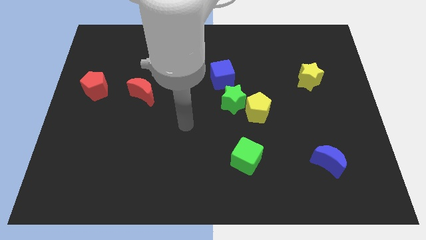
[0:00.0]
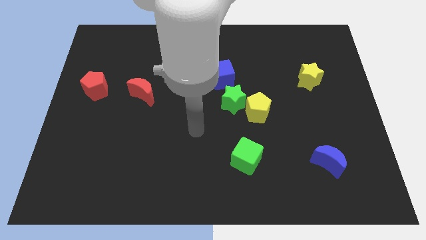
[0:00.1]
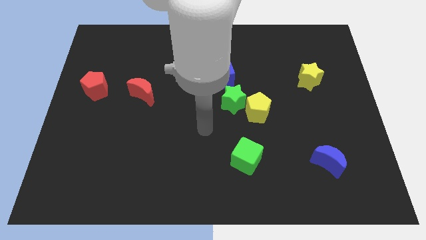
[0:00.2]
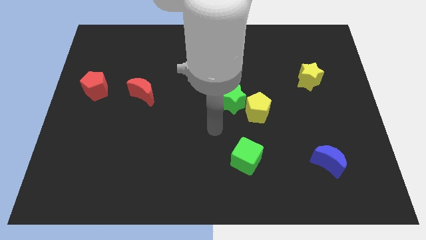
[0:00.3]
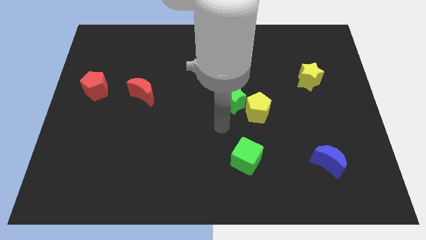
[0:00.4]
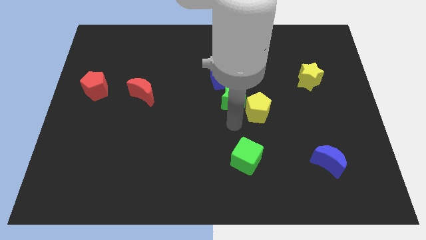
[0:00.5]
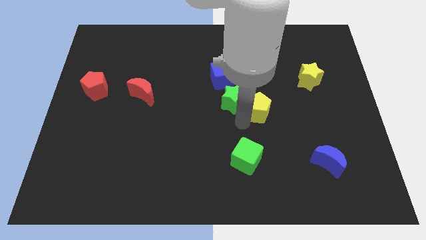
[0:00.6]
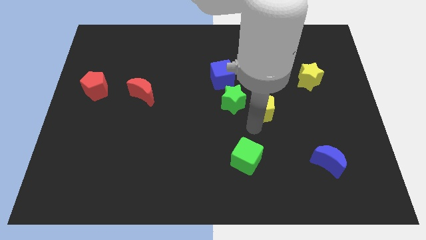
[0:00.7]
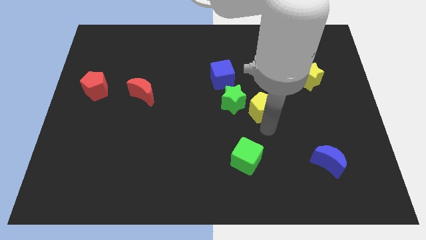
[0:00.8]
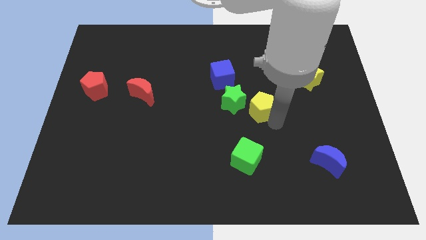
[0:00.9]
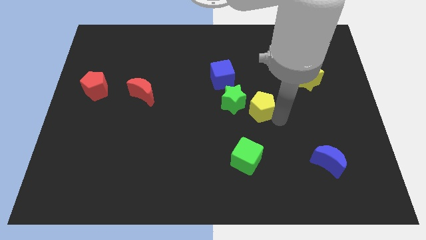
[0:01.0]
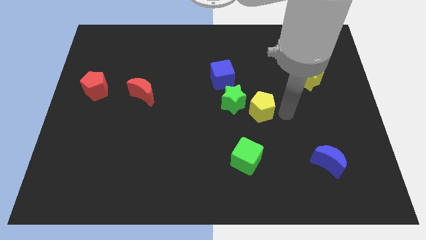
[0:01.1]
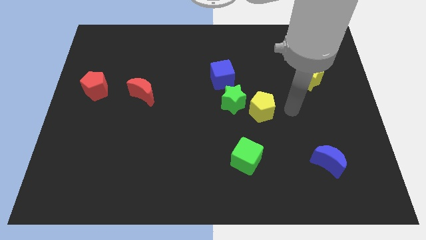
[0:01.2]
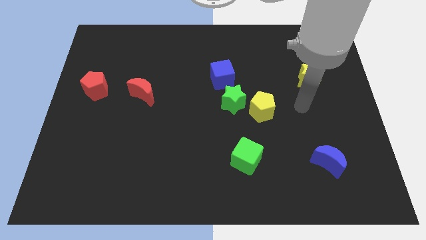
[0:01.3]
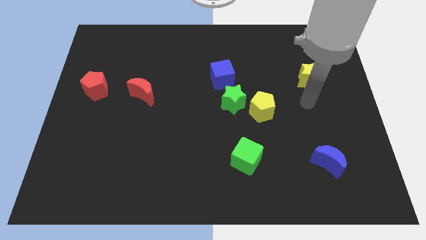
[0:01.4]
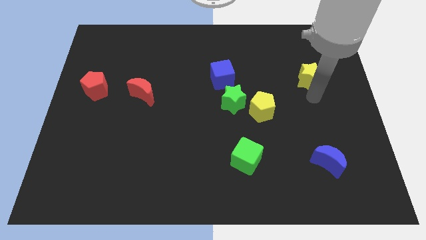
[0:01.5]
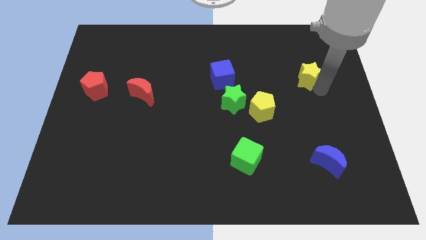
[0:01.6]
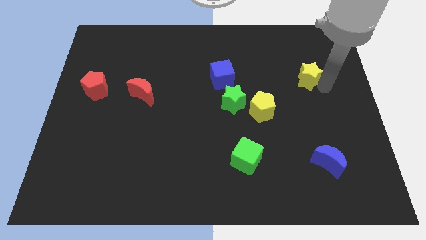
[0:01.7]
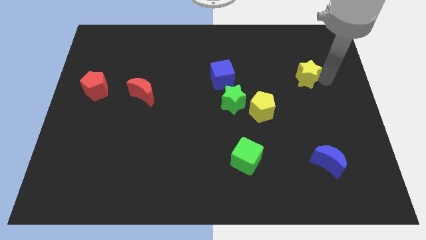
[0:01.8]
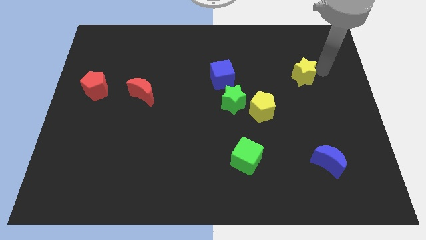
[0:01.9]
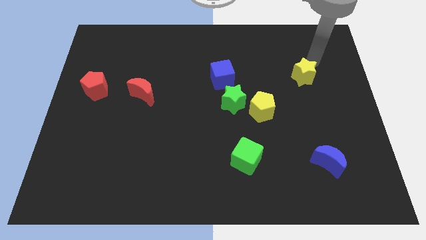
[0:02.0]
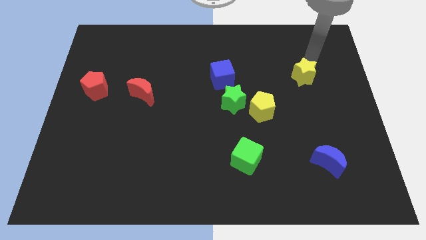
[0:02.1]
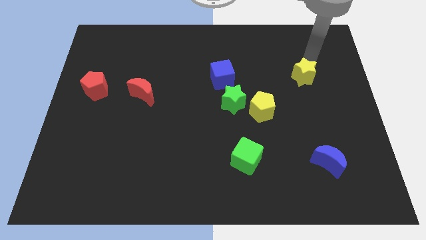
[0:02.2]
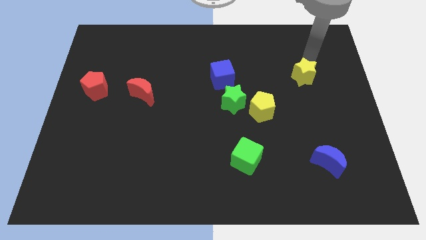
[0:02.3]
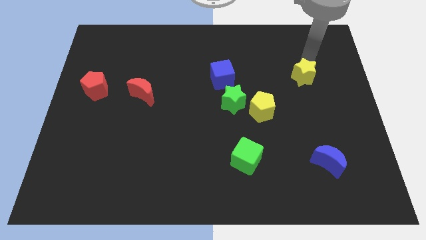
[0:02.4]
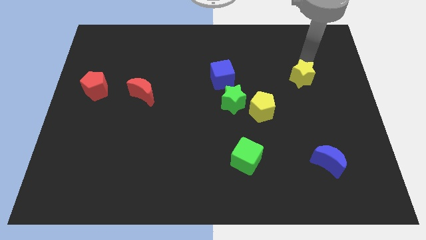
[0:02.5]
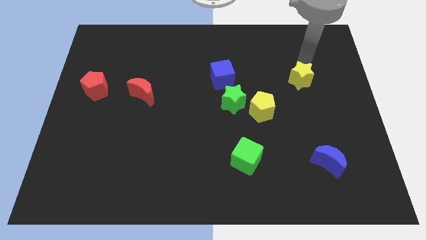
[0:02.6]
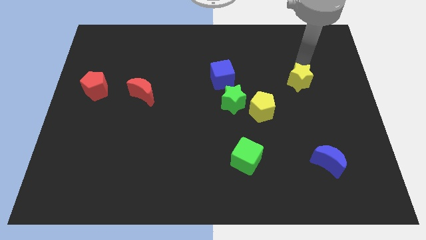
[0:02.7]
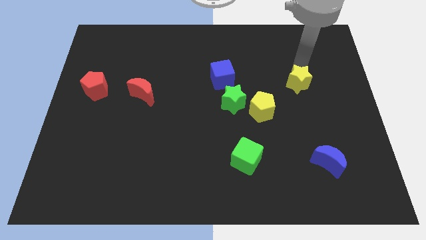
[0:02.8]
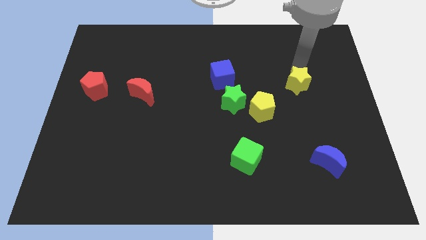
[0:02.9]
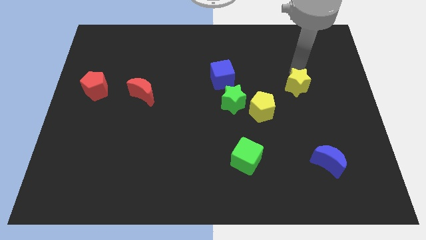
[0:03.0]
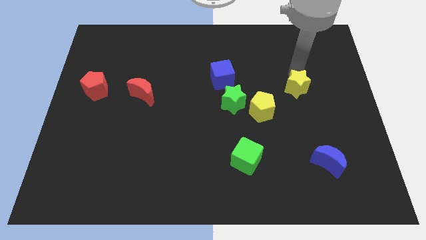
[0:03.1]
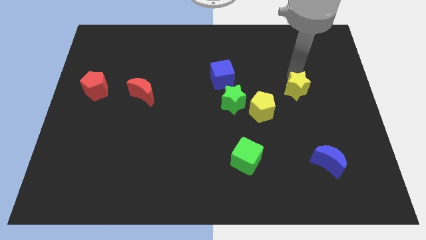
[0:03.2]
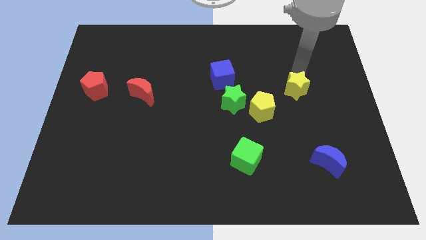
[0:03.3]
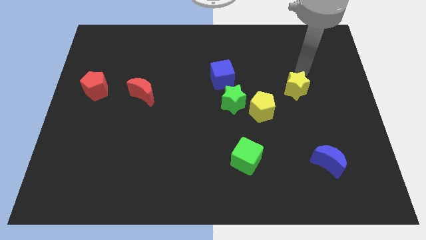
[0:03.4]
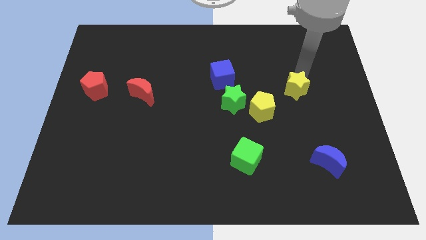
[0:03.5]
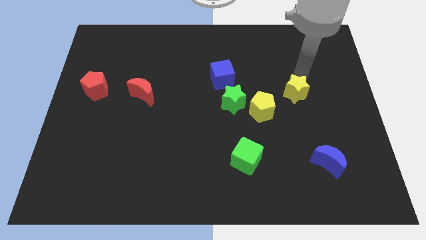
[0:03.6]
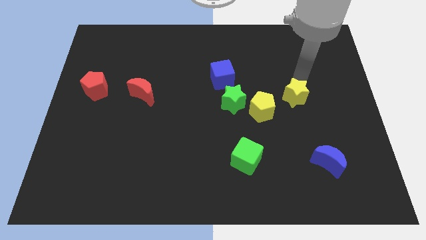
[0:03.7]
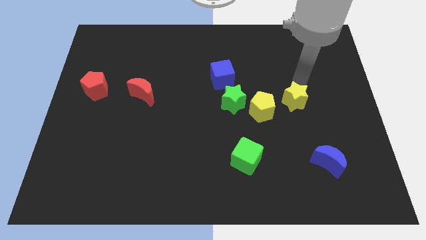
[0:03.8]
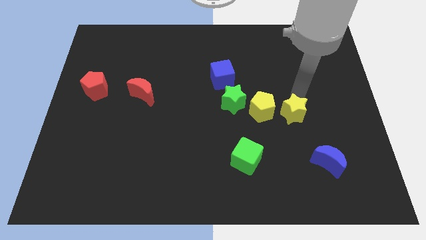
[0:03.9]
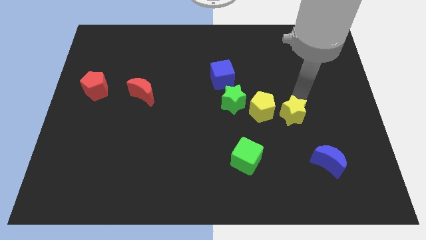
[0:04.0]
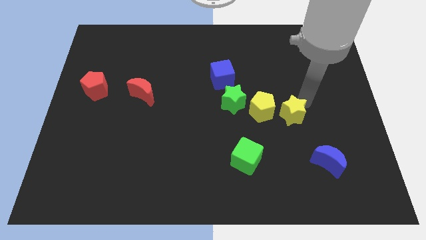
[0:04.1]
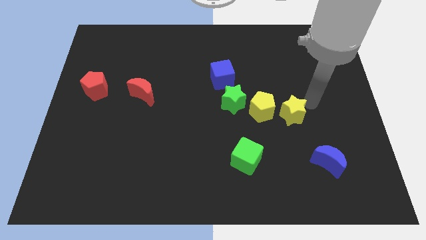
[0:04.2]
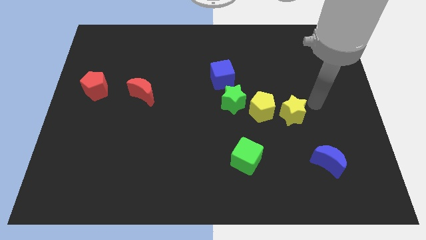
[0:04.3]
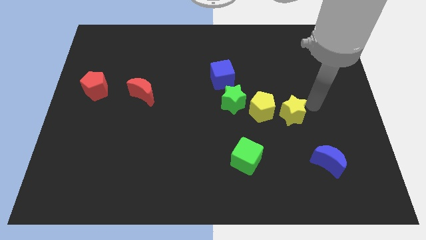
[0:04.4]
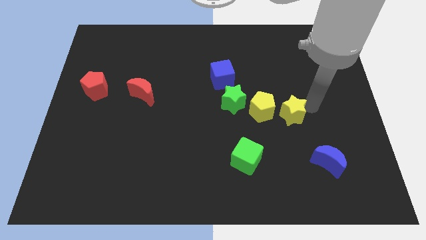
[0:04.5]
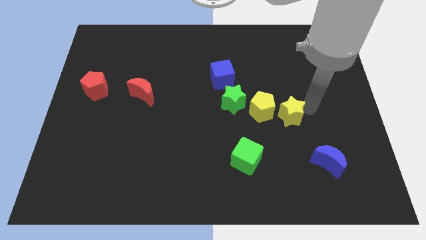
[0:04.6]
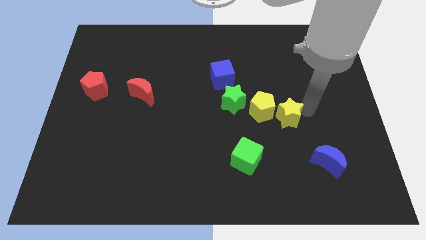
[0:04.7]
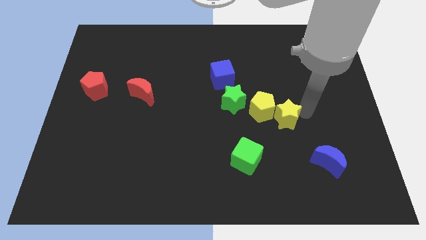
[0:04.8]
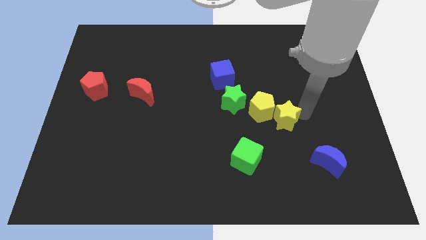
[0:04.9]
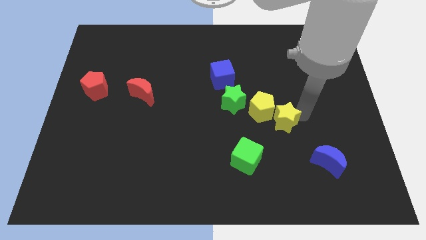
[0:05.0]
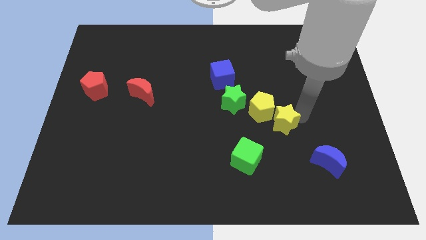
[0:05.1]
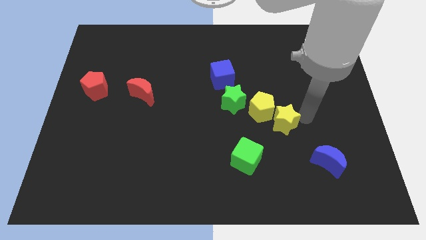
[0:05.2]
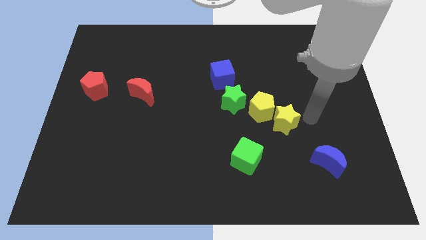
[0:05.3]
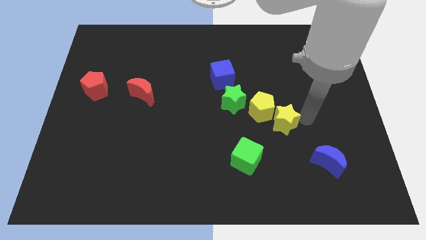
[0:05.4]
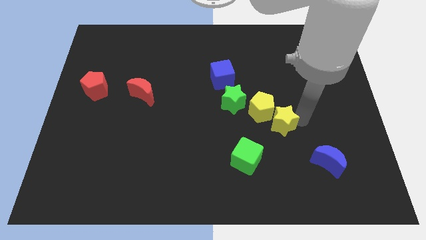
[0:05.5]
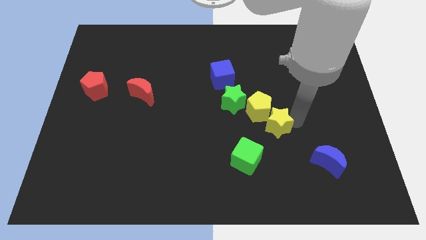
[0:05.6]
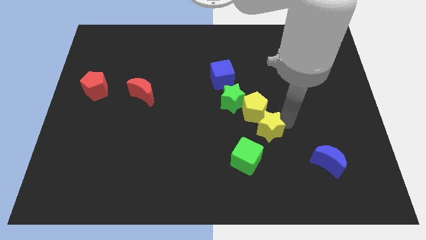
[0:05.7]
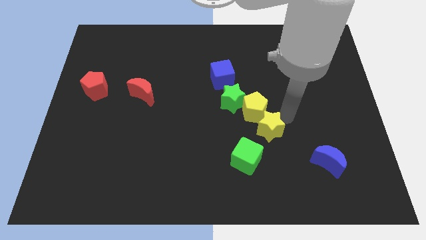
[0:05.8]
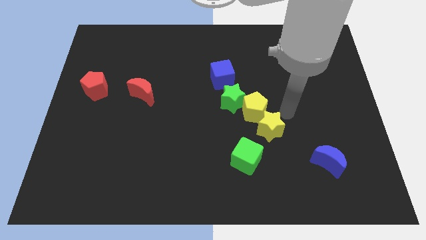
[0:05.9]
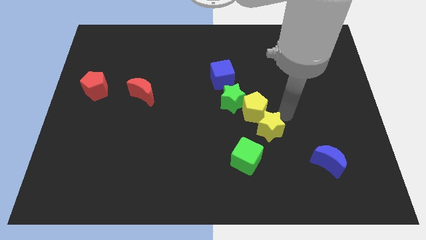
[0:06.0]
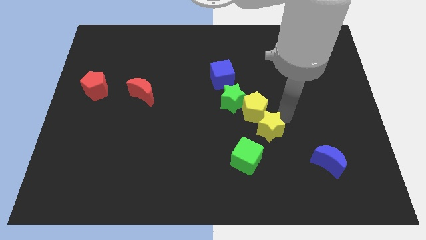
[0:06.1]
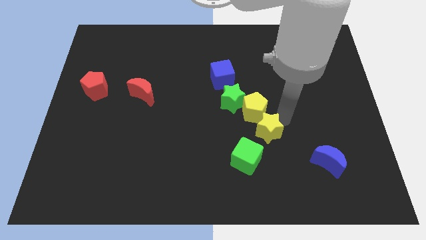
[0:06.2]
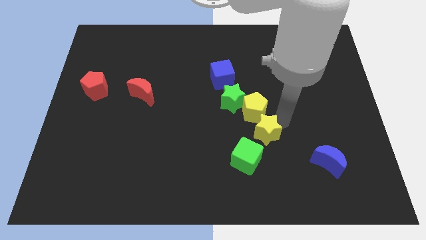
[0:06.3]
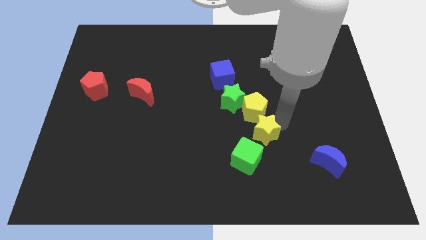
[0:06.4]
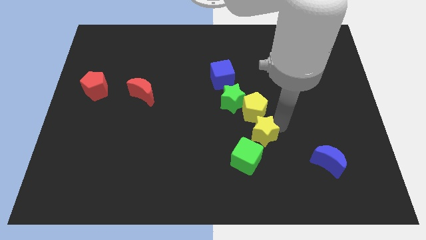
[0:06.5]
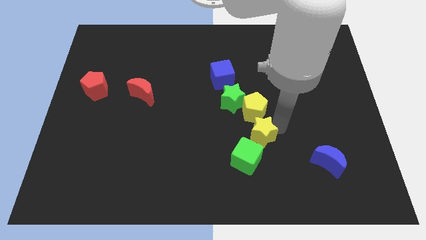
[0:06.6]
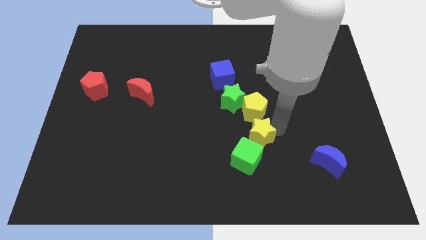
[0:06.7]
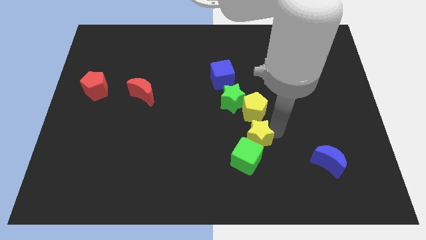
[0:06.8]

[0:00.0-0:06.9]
push the yellow star next to the green cube

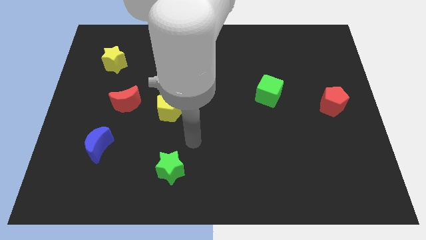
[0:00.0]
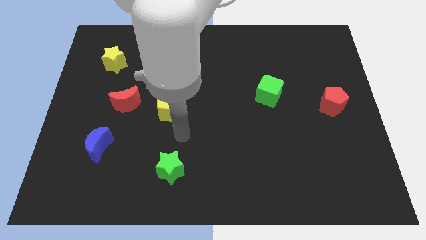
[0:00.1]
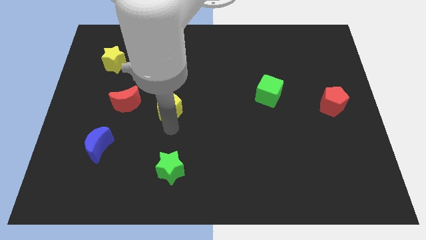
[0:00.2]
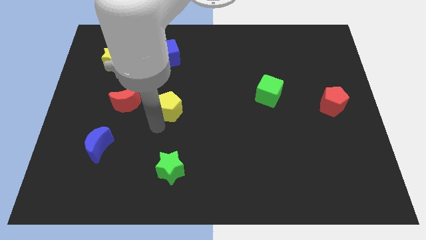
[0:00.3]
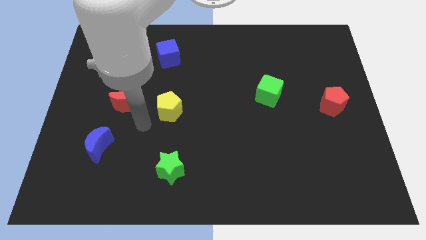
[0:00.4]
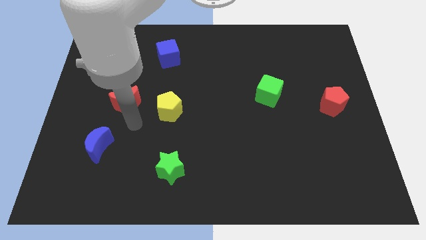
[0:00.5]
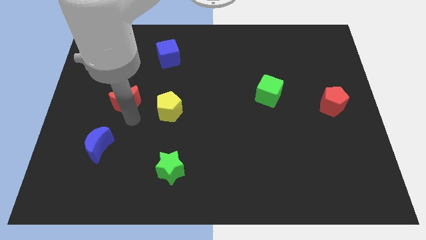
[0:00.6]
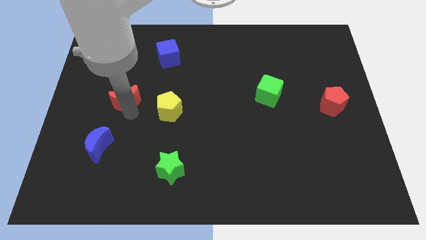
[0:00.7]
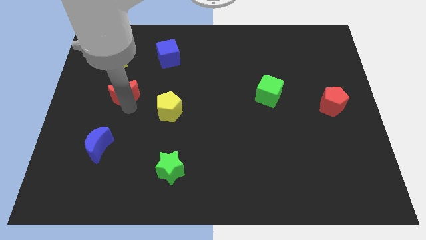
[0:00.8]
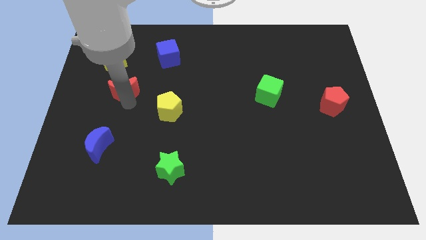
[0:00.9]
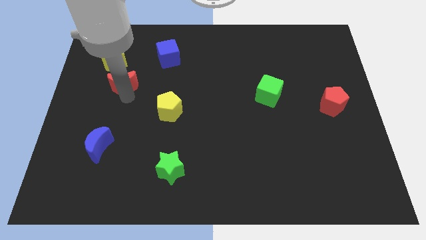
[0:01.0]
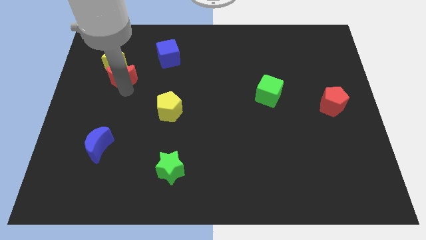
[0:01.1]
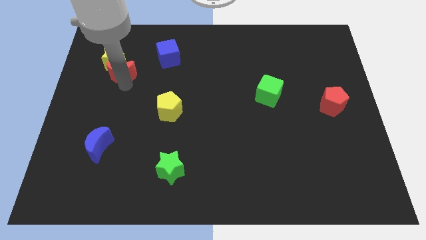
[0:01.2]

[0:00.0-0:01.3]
move the red moon to the yellow star
